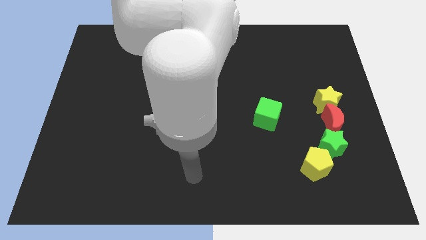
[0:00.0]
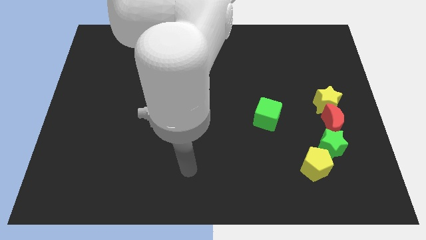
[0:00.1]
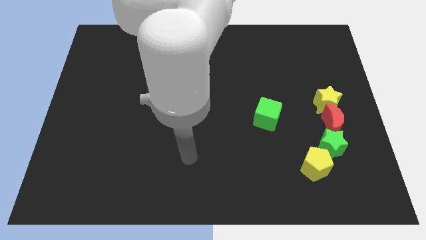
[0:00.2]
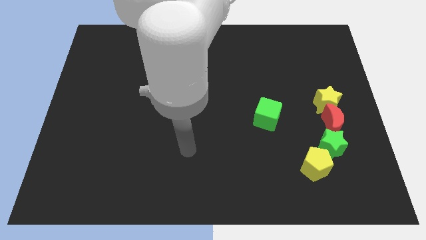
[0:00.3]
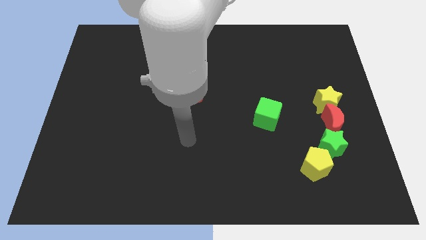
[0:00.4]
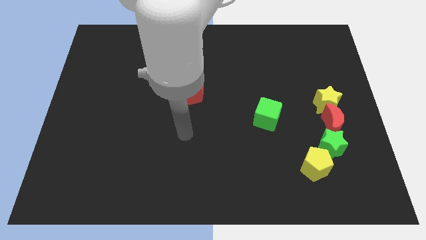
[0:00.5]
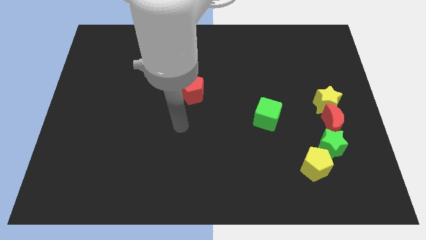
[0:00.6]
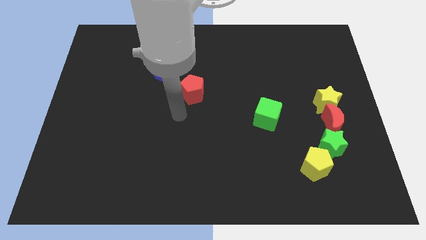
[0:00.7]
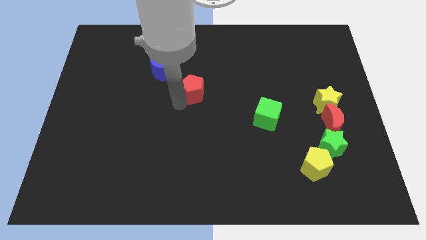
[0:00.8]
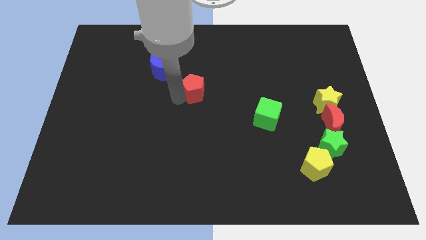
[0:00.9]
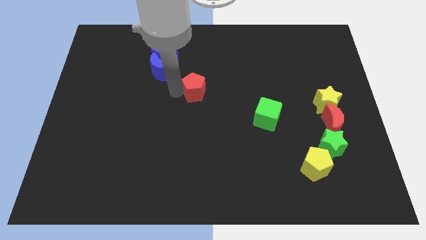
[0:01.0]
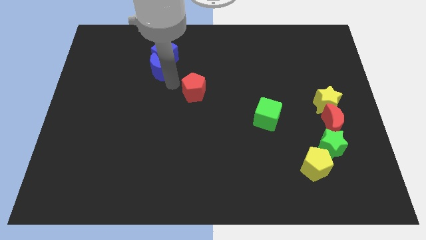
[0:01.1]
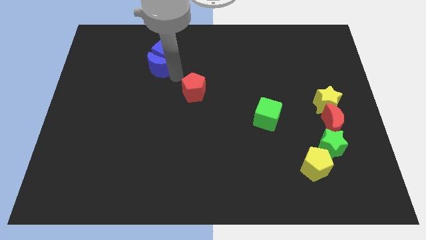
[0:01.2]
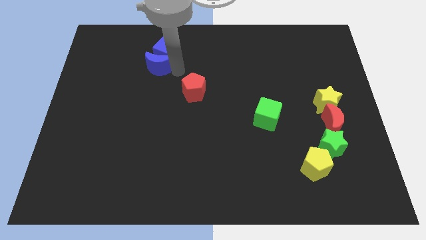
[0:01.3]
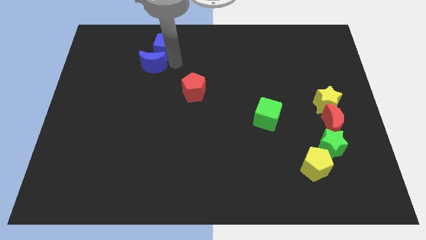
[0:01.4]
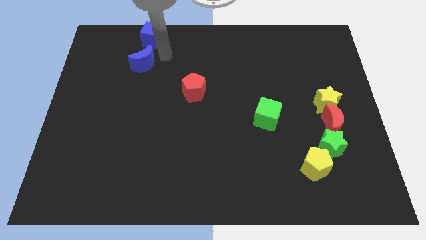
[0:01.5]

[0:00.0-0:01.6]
separate the blue moon from the blue cube

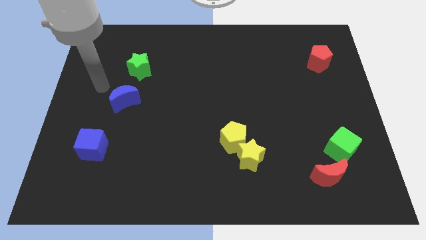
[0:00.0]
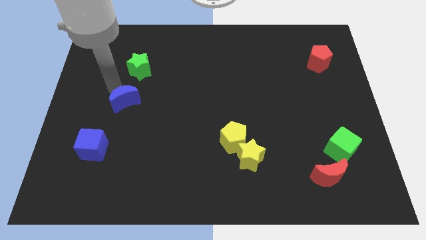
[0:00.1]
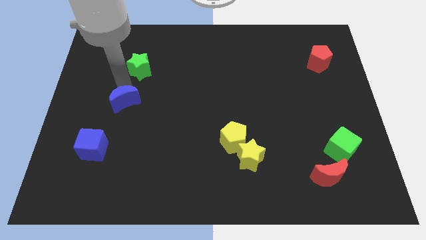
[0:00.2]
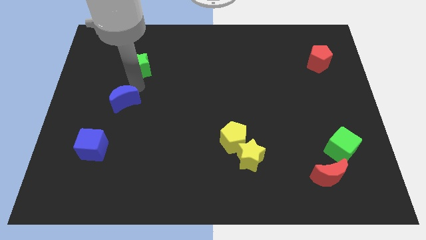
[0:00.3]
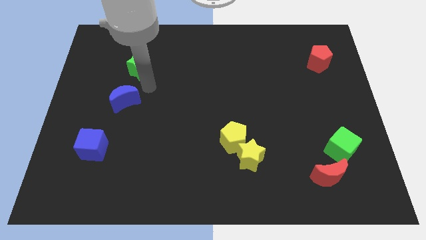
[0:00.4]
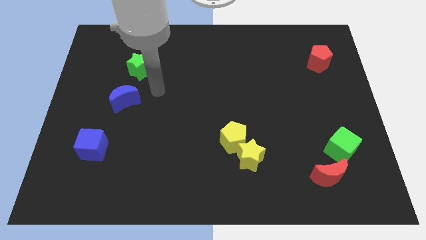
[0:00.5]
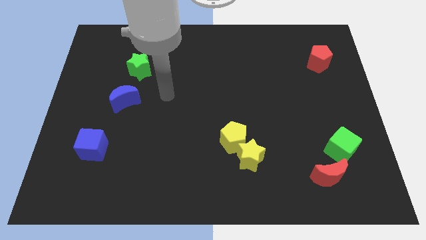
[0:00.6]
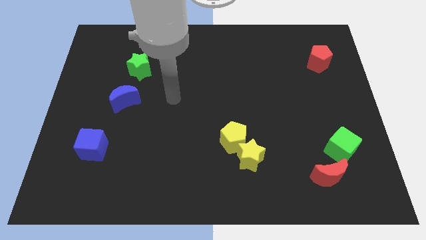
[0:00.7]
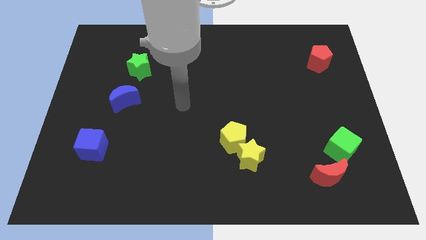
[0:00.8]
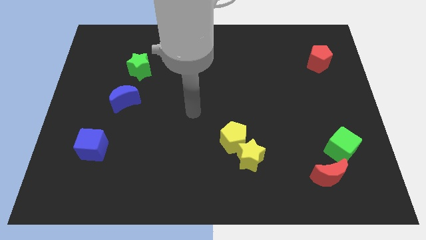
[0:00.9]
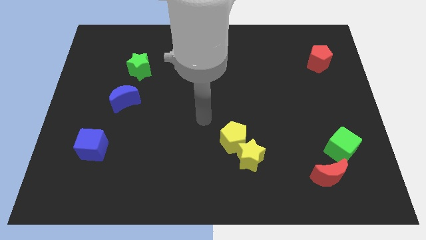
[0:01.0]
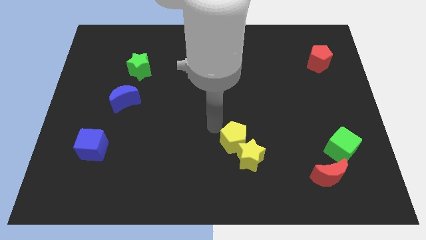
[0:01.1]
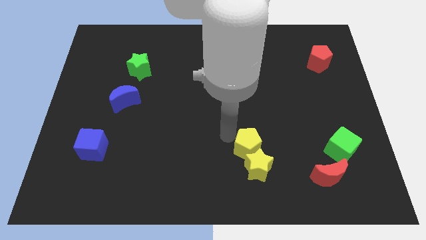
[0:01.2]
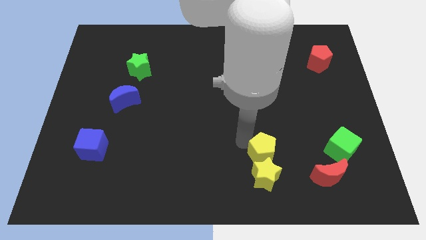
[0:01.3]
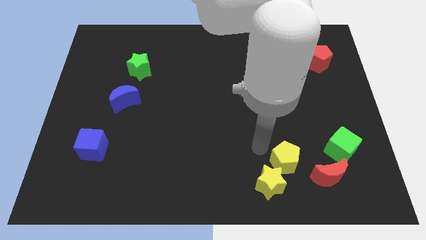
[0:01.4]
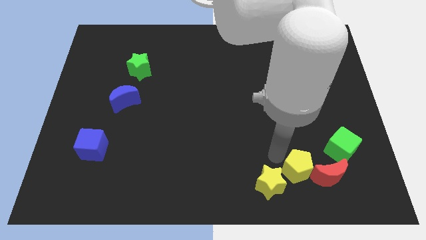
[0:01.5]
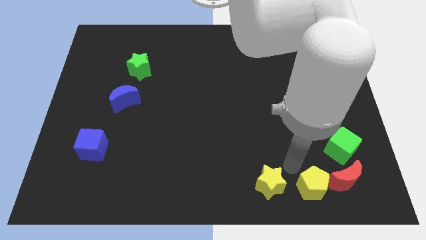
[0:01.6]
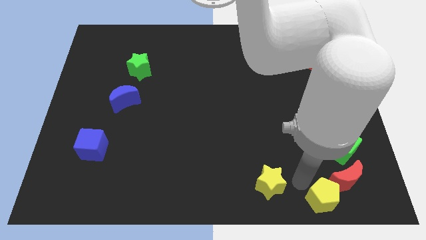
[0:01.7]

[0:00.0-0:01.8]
separate the yellow star from the yellow pentagon

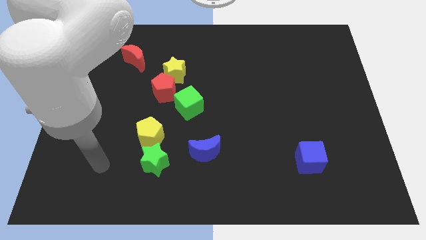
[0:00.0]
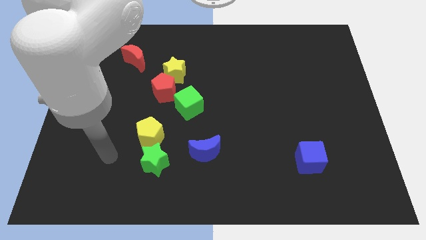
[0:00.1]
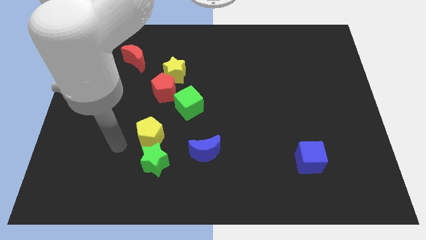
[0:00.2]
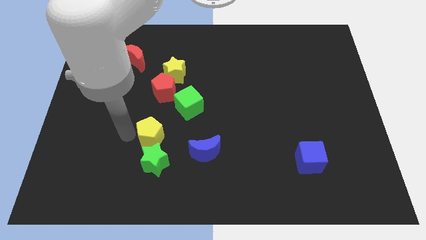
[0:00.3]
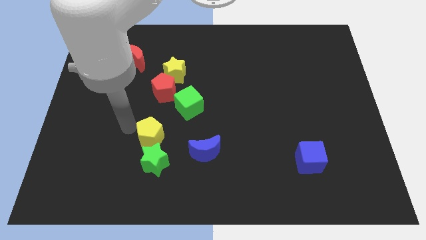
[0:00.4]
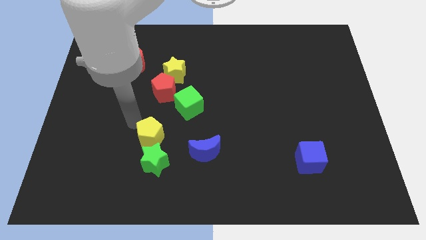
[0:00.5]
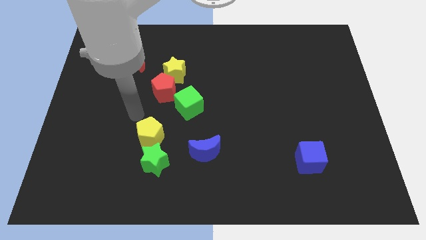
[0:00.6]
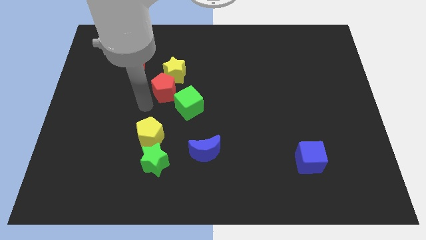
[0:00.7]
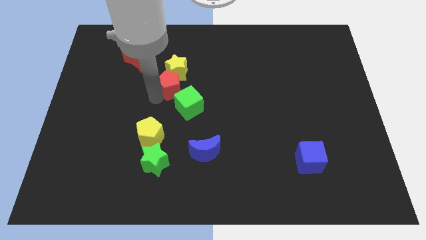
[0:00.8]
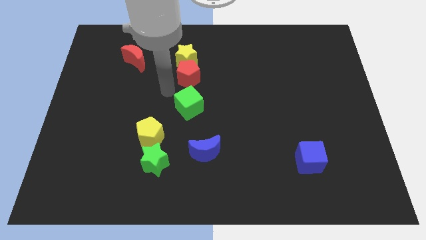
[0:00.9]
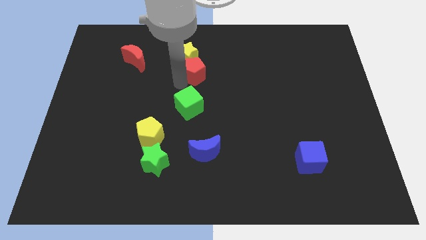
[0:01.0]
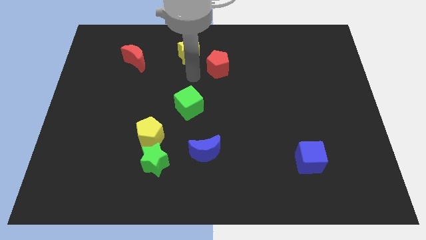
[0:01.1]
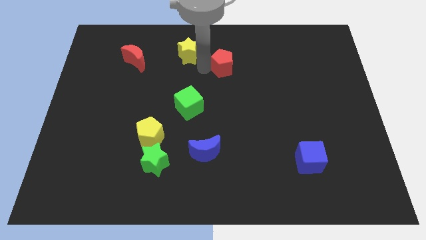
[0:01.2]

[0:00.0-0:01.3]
pull the yellow star apart from the red pentagon

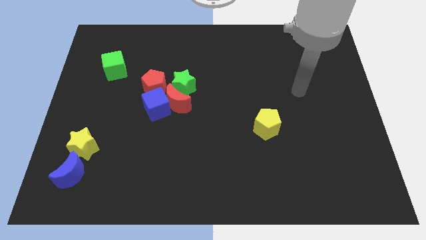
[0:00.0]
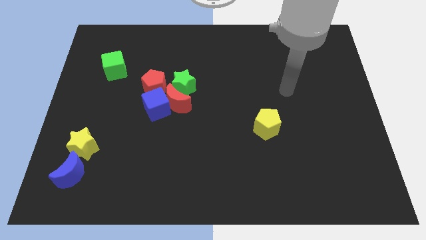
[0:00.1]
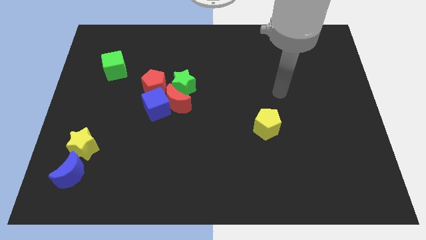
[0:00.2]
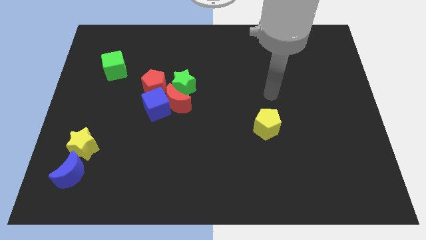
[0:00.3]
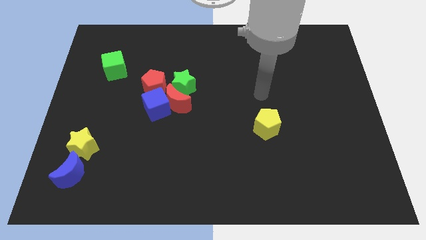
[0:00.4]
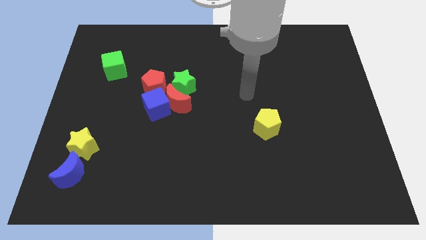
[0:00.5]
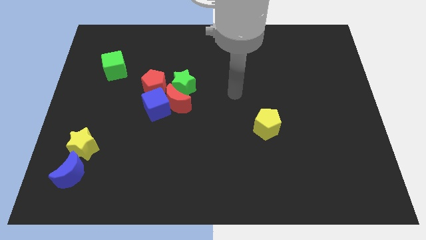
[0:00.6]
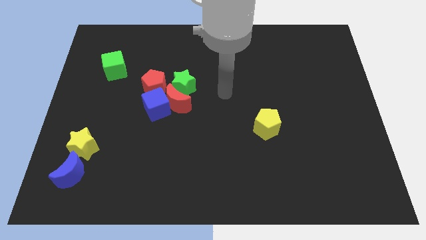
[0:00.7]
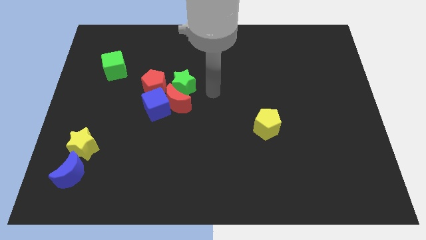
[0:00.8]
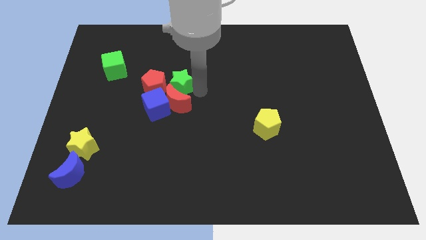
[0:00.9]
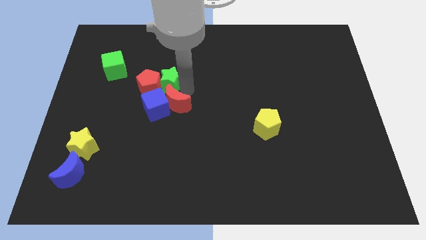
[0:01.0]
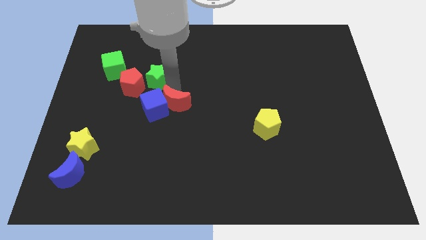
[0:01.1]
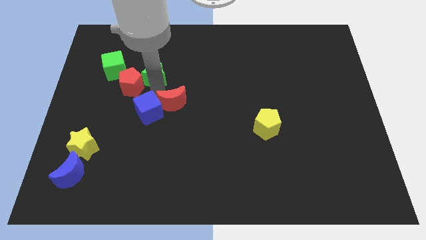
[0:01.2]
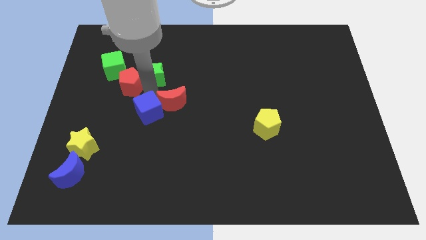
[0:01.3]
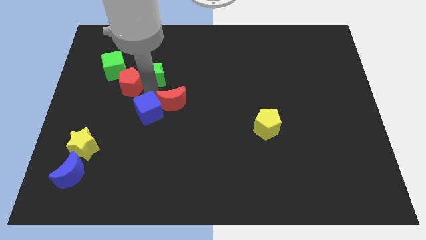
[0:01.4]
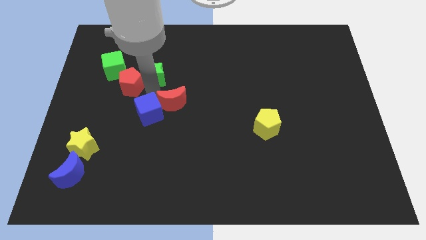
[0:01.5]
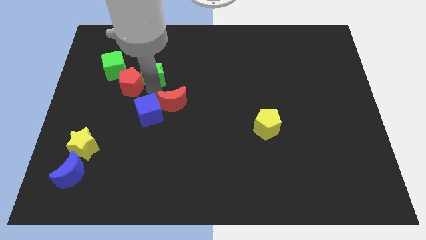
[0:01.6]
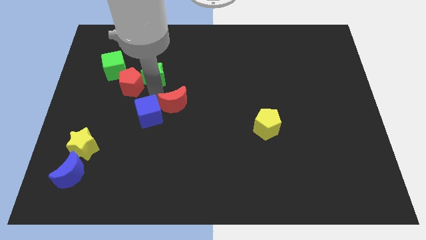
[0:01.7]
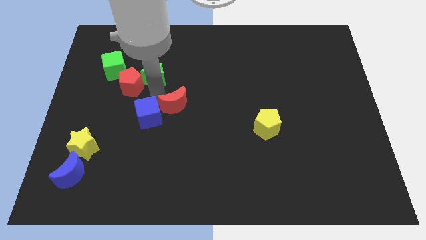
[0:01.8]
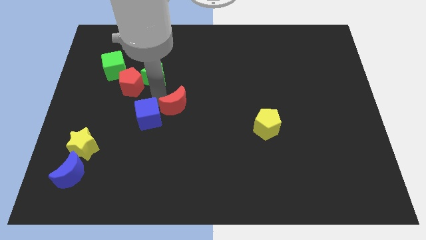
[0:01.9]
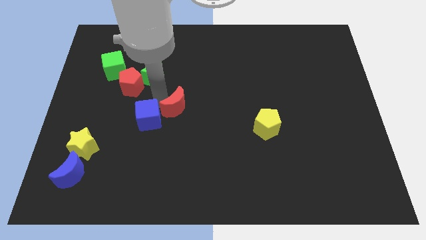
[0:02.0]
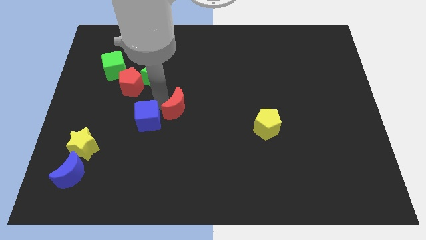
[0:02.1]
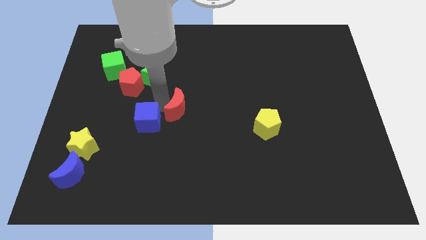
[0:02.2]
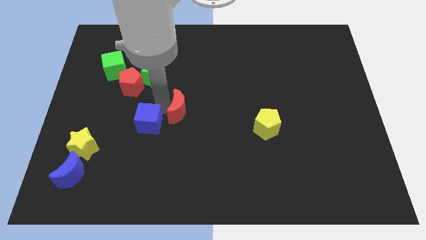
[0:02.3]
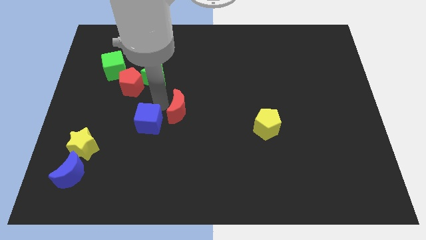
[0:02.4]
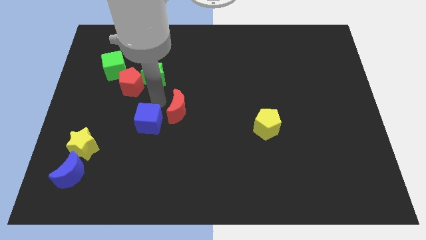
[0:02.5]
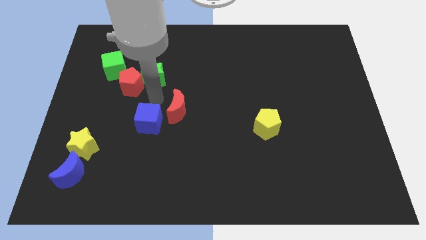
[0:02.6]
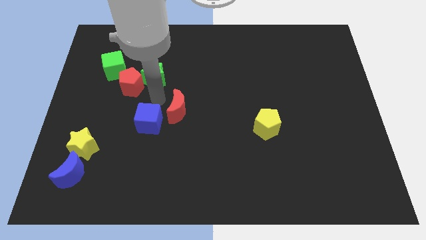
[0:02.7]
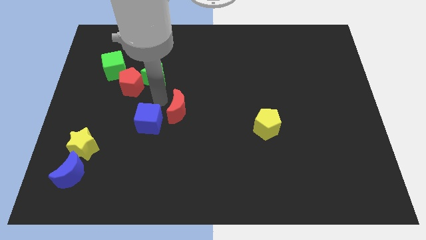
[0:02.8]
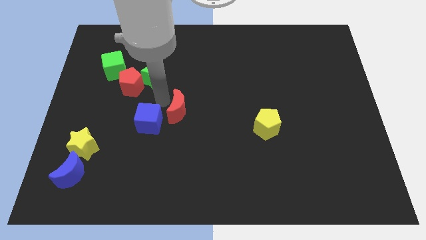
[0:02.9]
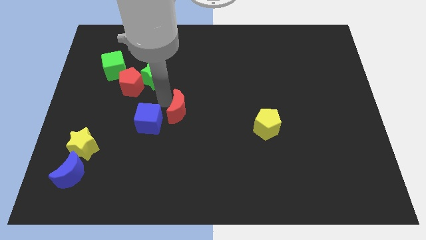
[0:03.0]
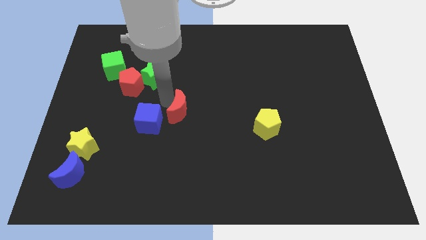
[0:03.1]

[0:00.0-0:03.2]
separate the red moon from the clump

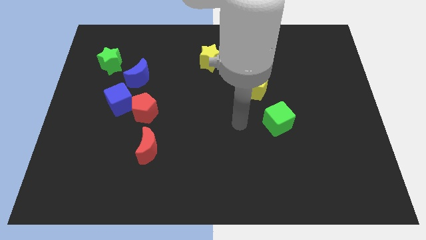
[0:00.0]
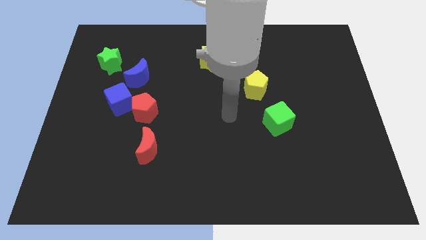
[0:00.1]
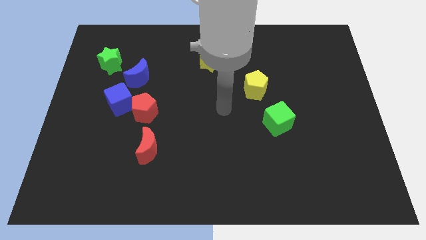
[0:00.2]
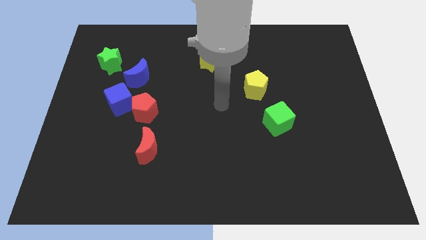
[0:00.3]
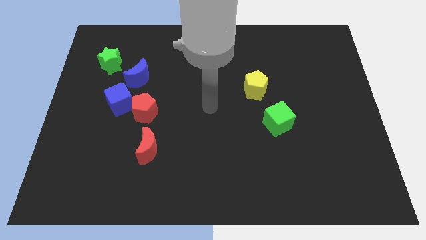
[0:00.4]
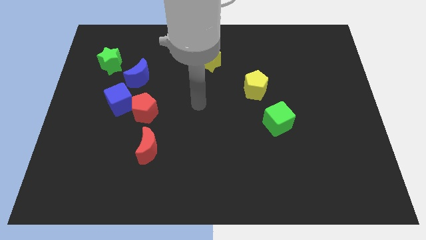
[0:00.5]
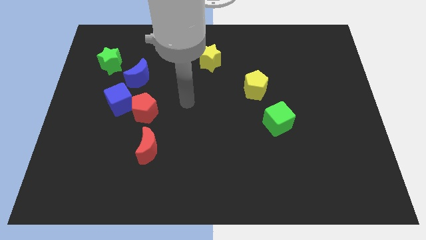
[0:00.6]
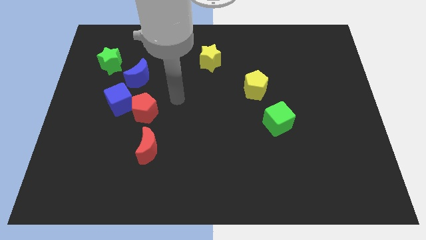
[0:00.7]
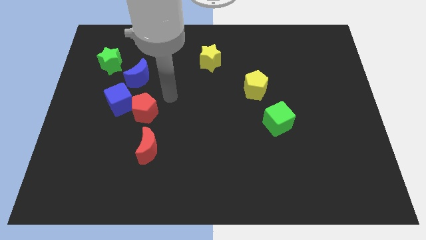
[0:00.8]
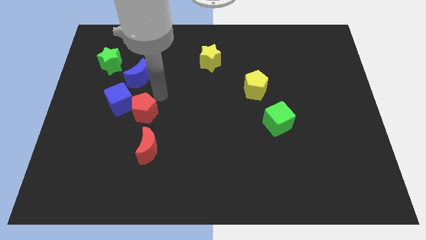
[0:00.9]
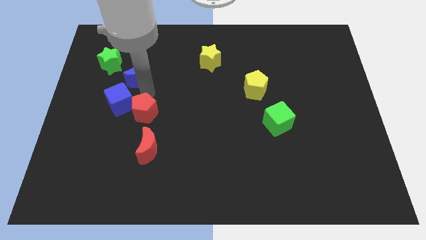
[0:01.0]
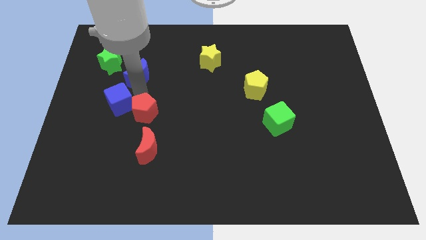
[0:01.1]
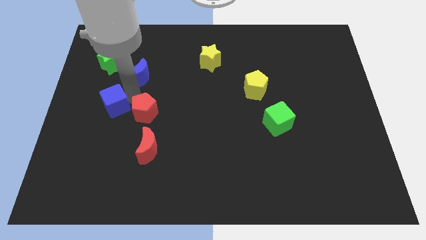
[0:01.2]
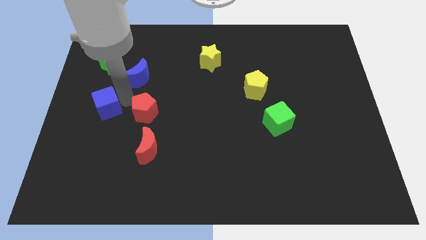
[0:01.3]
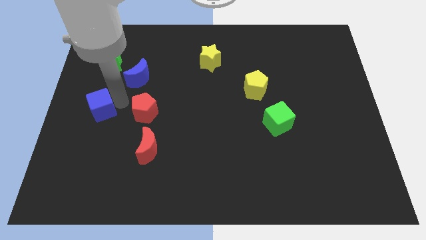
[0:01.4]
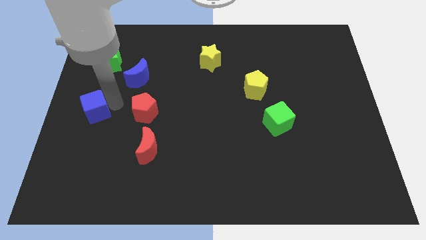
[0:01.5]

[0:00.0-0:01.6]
move the blue cube away from the red pentagon and blue moon
